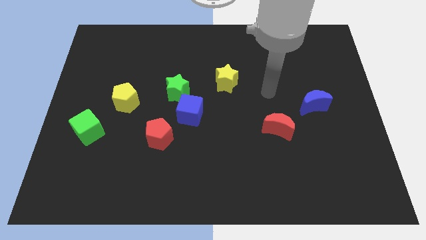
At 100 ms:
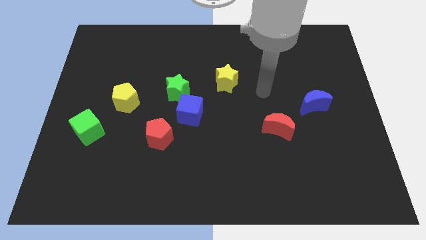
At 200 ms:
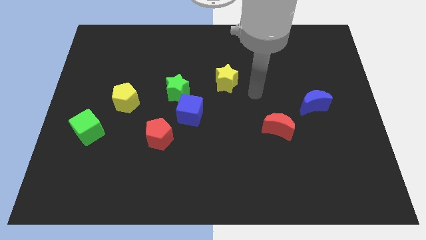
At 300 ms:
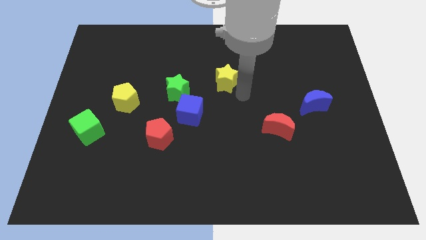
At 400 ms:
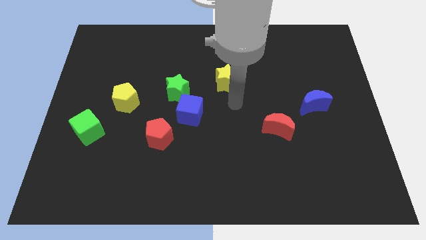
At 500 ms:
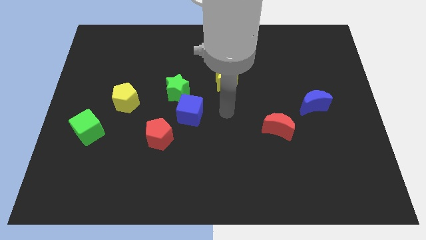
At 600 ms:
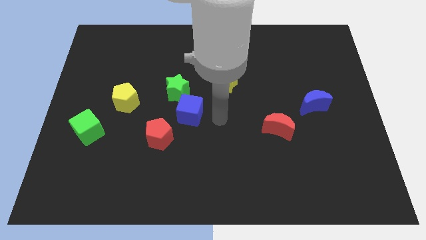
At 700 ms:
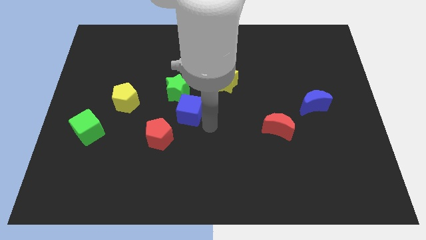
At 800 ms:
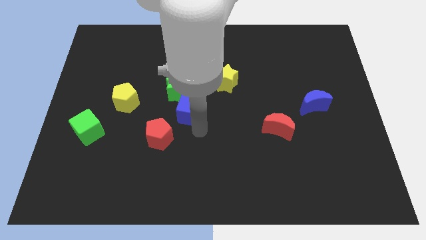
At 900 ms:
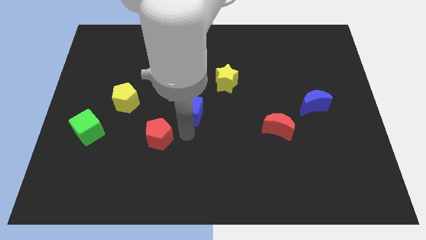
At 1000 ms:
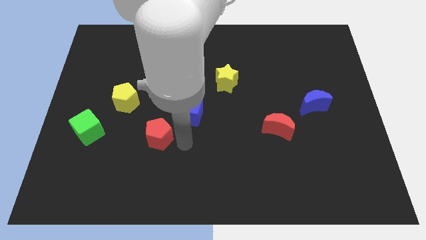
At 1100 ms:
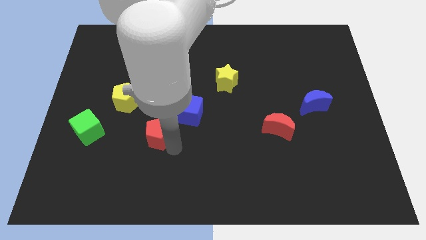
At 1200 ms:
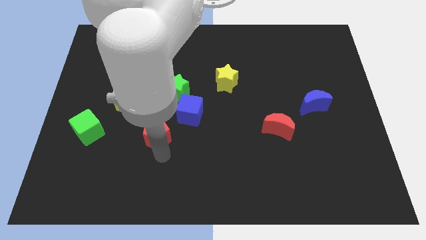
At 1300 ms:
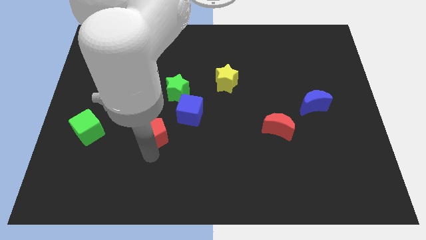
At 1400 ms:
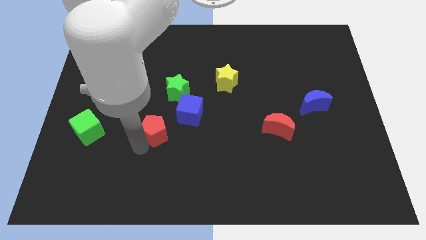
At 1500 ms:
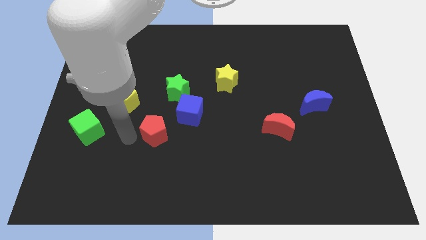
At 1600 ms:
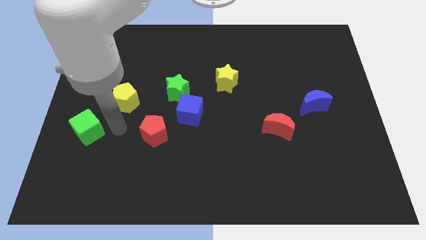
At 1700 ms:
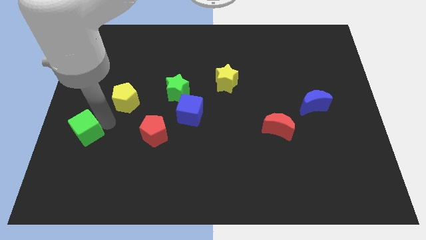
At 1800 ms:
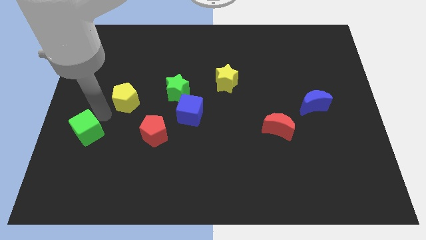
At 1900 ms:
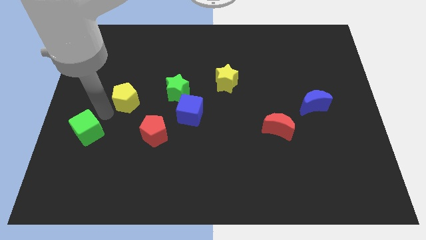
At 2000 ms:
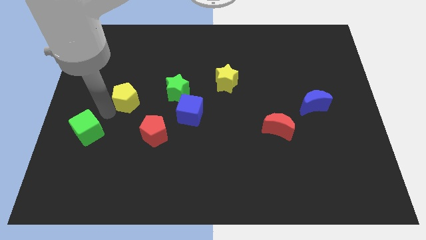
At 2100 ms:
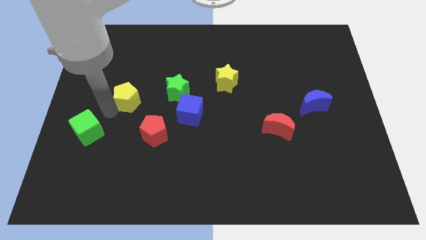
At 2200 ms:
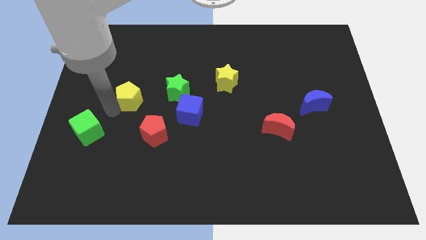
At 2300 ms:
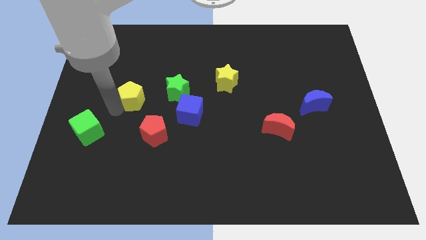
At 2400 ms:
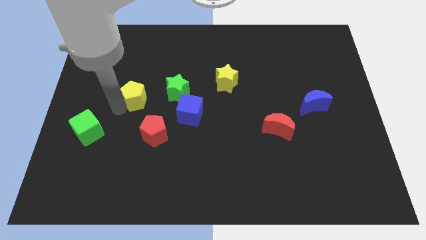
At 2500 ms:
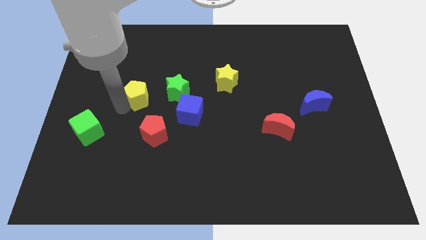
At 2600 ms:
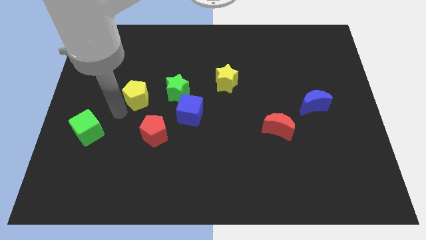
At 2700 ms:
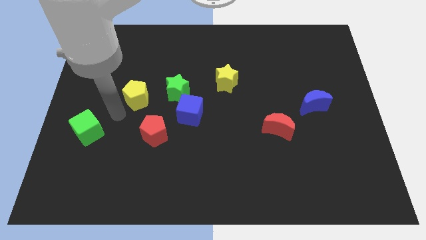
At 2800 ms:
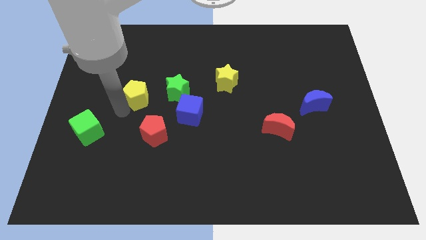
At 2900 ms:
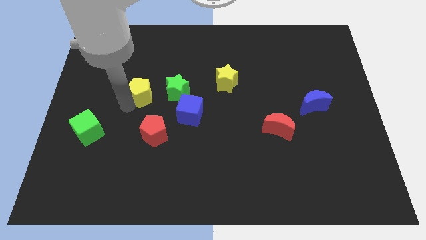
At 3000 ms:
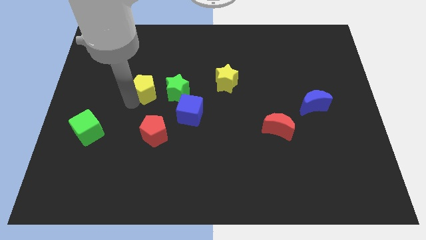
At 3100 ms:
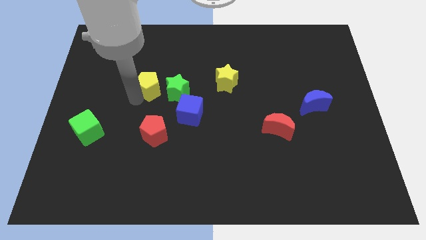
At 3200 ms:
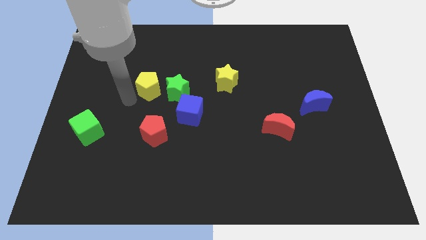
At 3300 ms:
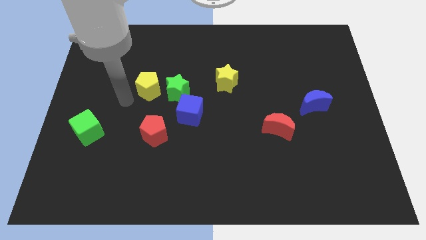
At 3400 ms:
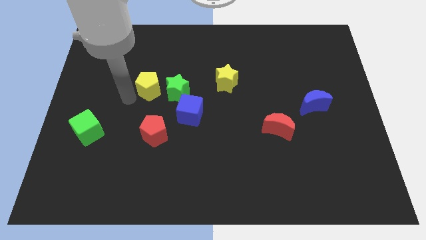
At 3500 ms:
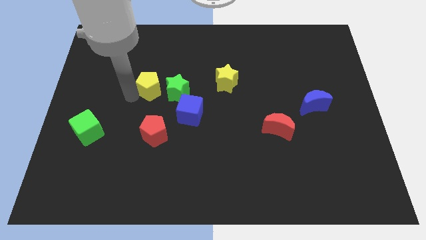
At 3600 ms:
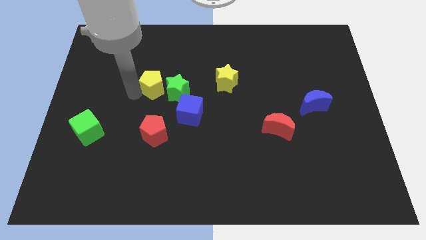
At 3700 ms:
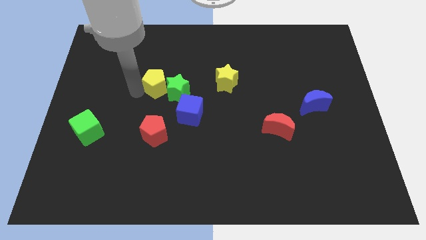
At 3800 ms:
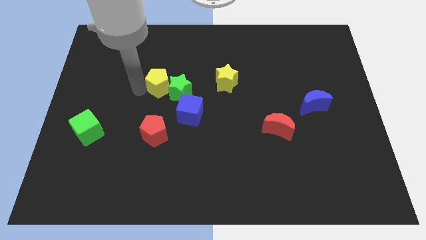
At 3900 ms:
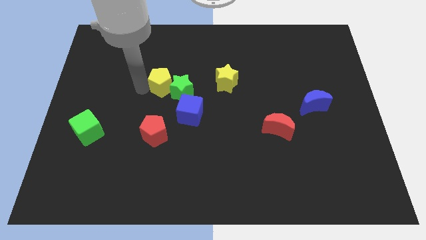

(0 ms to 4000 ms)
slightly slide the yellow pentagon right

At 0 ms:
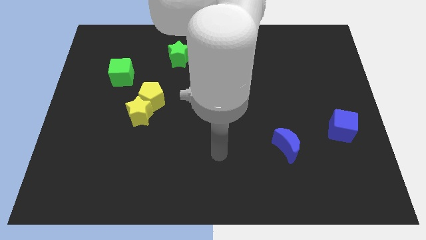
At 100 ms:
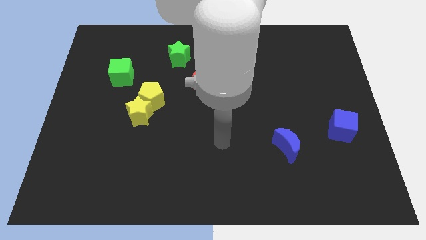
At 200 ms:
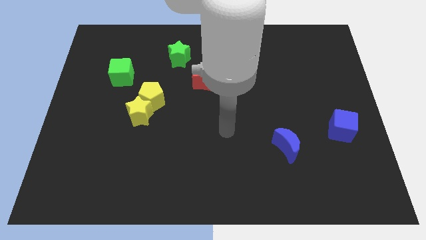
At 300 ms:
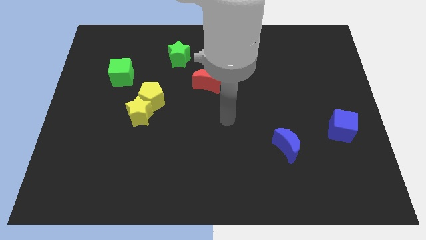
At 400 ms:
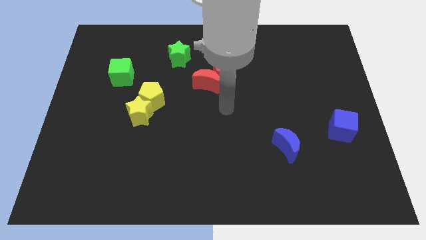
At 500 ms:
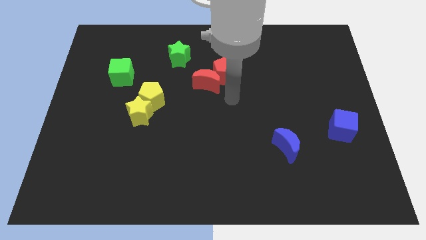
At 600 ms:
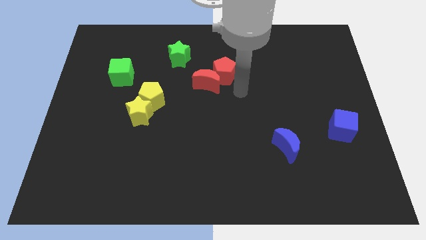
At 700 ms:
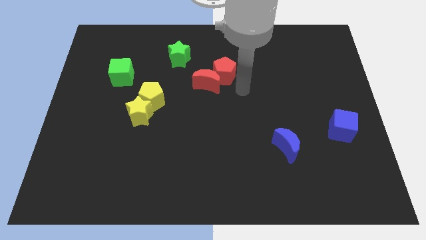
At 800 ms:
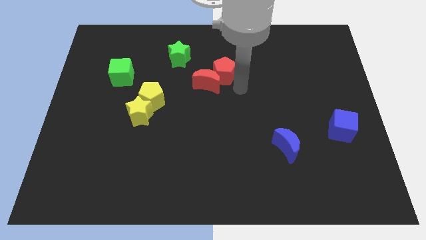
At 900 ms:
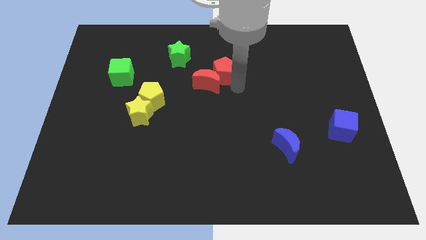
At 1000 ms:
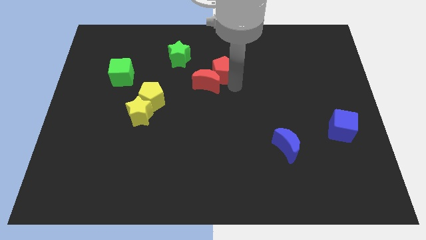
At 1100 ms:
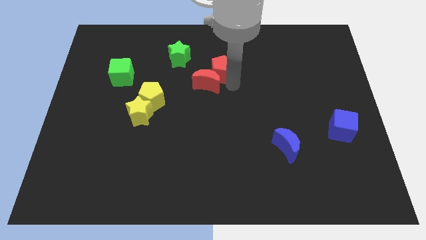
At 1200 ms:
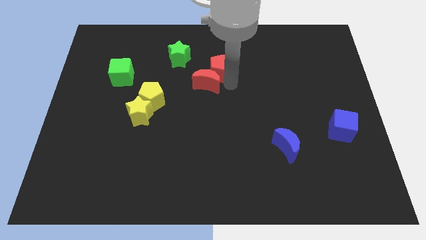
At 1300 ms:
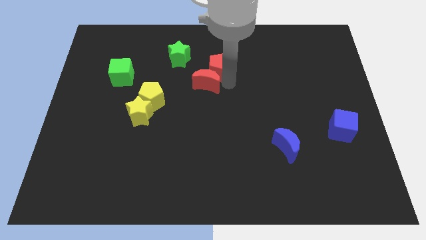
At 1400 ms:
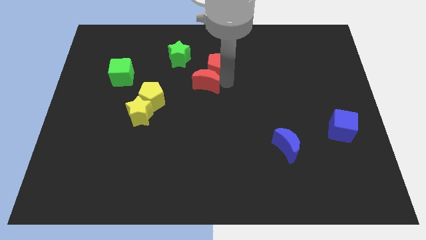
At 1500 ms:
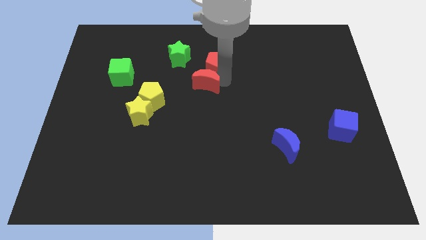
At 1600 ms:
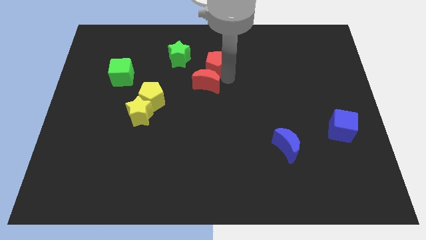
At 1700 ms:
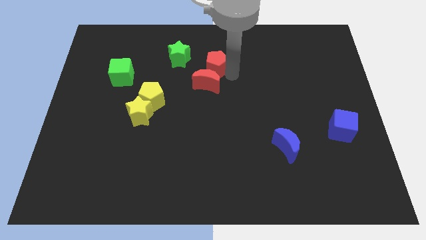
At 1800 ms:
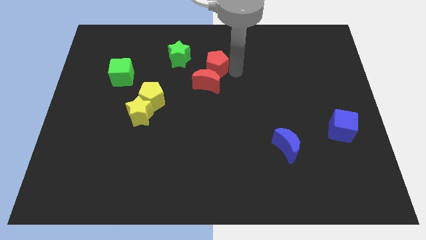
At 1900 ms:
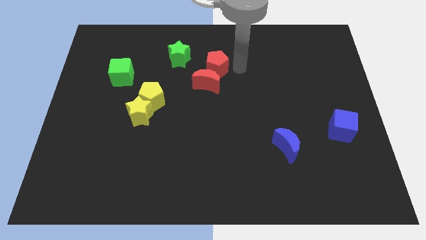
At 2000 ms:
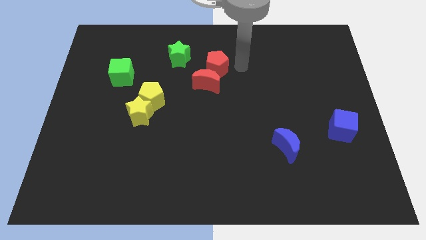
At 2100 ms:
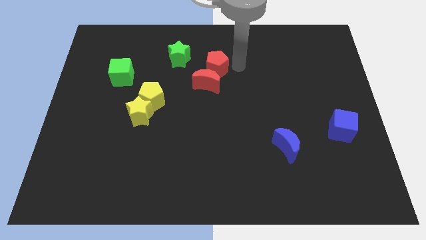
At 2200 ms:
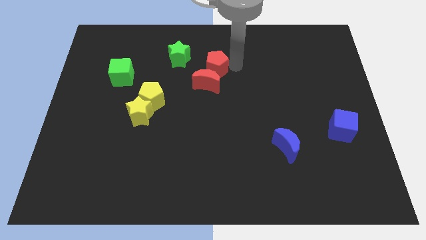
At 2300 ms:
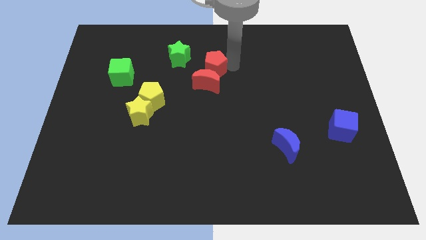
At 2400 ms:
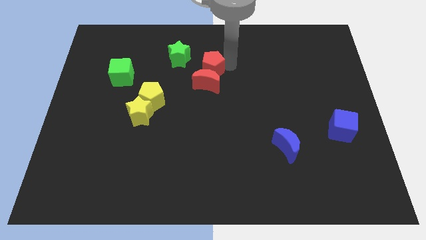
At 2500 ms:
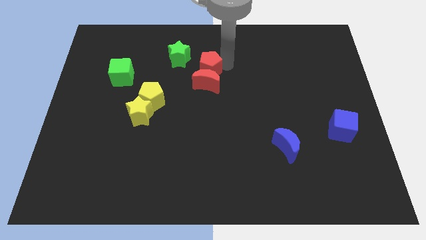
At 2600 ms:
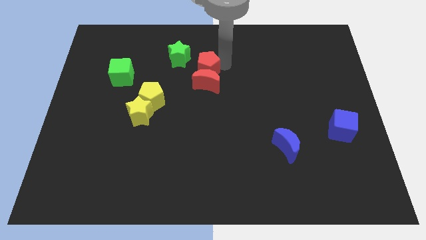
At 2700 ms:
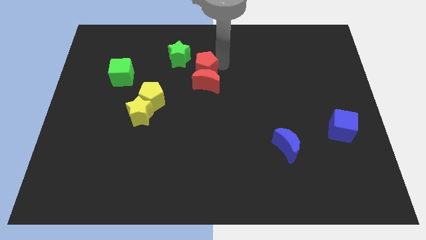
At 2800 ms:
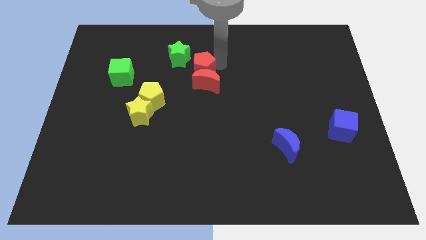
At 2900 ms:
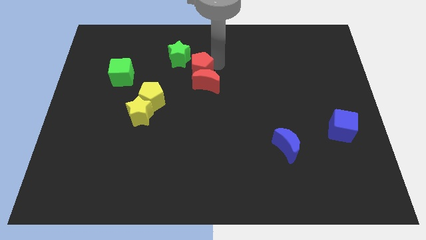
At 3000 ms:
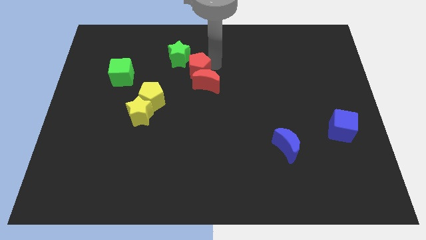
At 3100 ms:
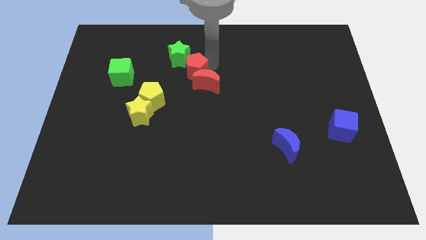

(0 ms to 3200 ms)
move the red pentagon left a little

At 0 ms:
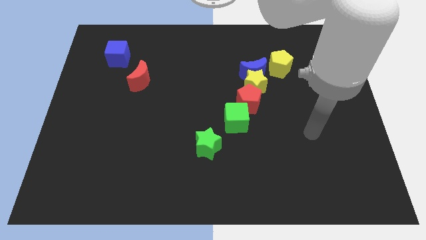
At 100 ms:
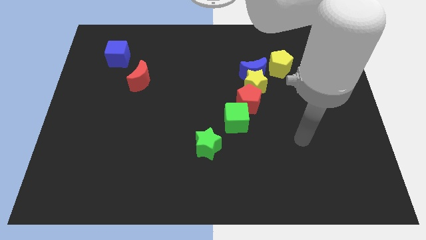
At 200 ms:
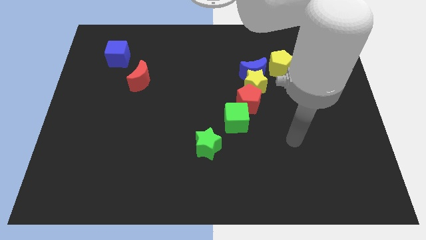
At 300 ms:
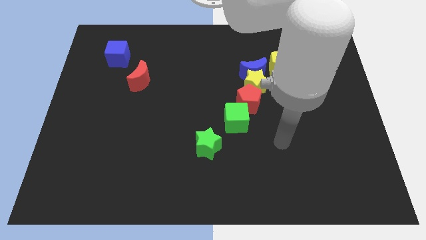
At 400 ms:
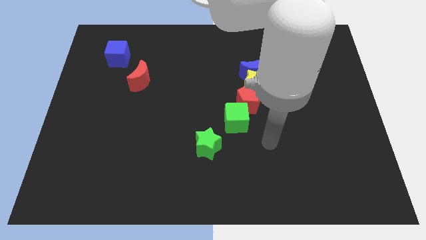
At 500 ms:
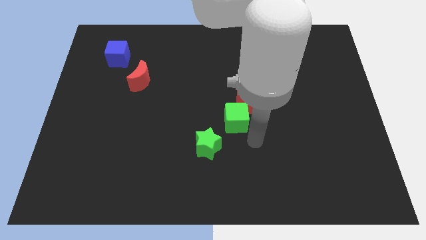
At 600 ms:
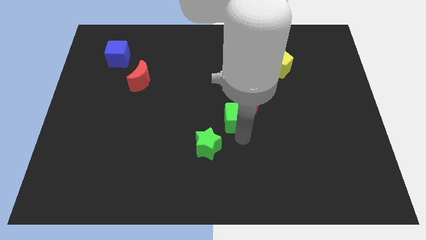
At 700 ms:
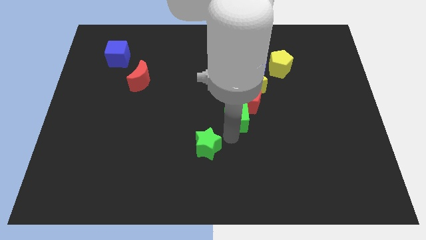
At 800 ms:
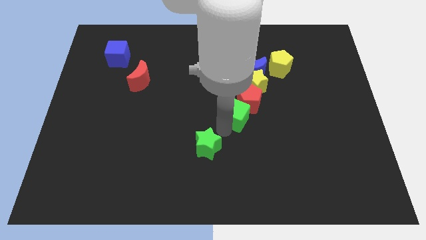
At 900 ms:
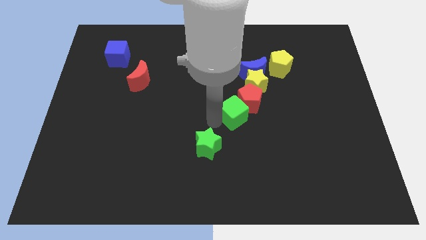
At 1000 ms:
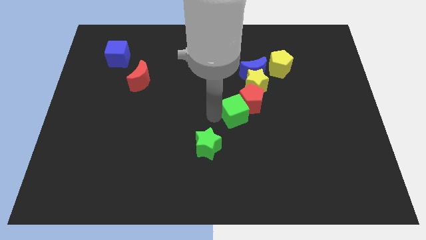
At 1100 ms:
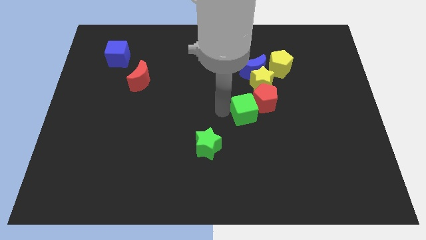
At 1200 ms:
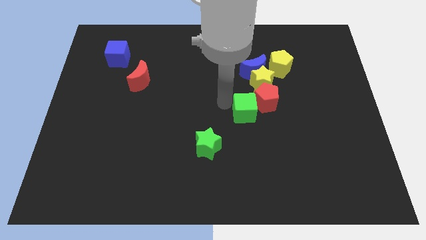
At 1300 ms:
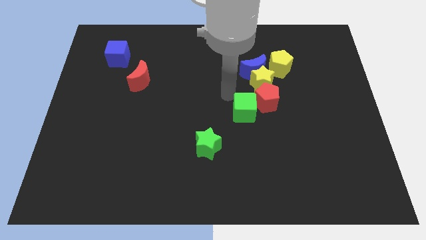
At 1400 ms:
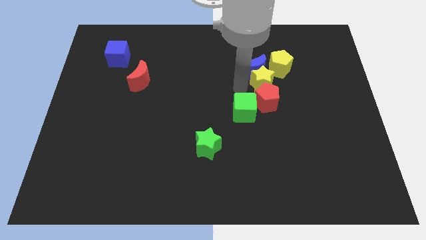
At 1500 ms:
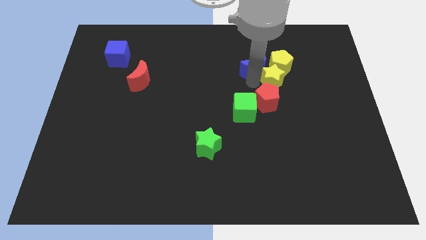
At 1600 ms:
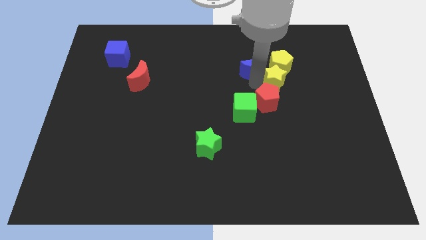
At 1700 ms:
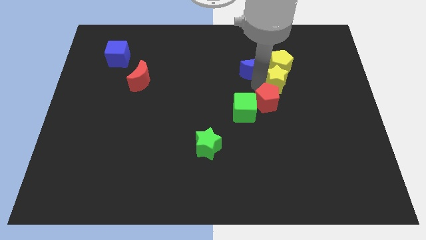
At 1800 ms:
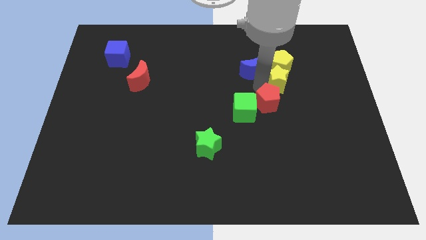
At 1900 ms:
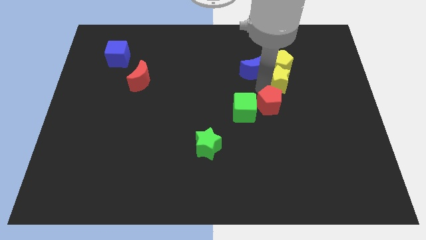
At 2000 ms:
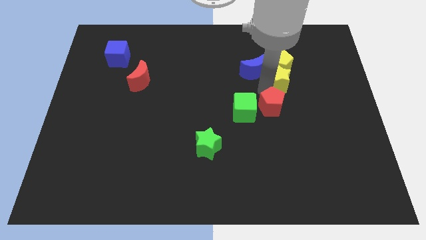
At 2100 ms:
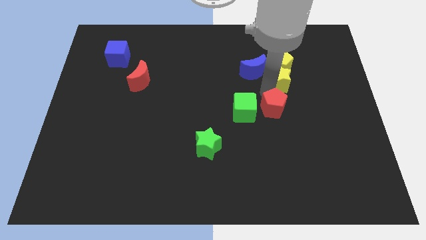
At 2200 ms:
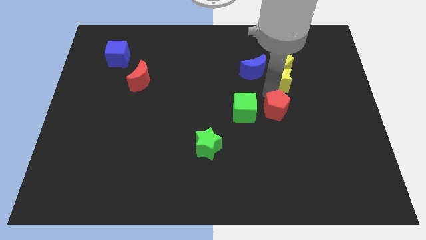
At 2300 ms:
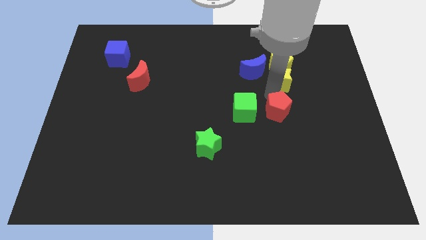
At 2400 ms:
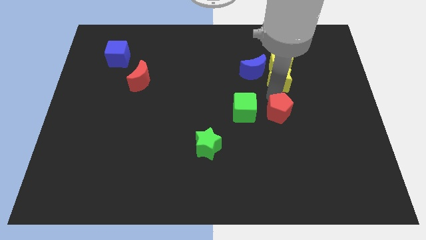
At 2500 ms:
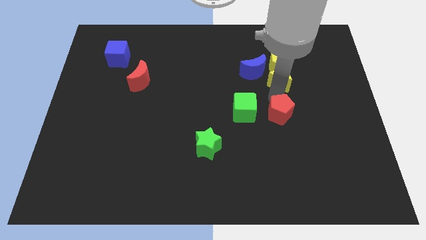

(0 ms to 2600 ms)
slightly move the red pentagon downwards and to the right diagonally
